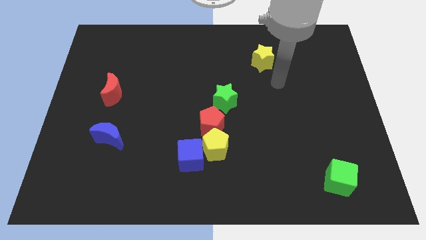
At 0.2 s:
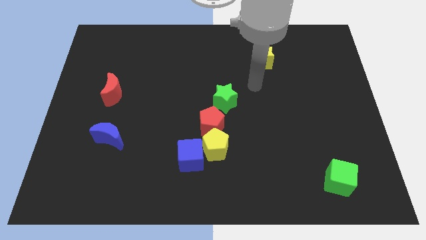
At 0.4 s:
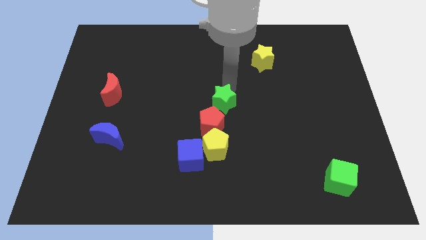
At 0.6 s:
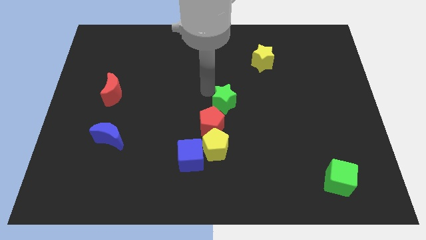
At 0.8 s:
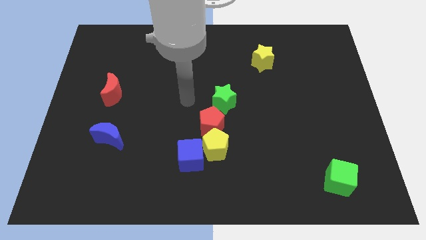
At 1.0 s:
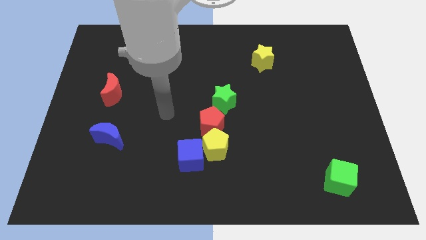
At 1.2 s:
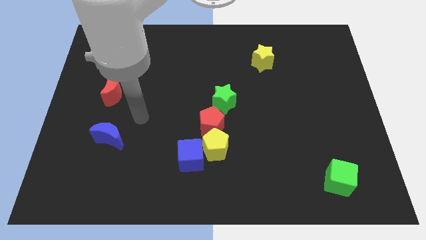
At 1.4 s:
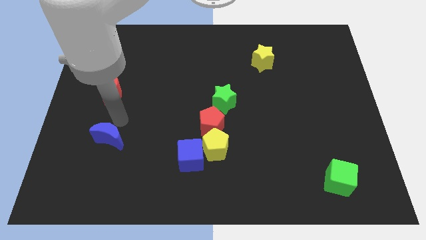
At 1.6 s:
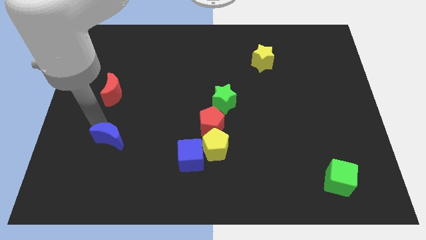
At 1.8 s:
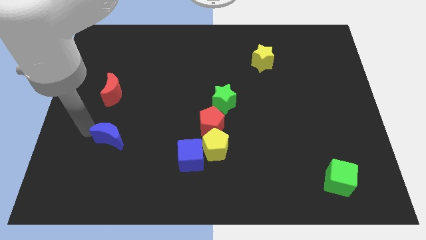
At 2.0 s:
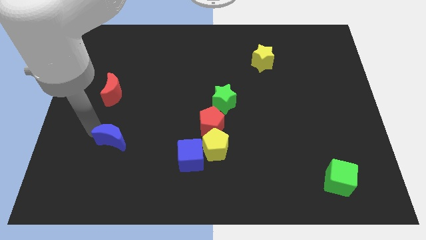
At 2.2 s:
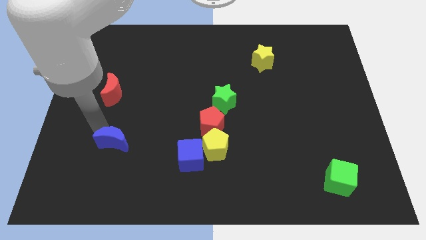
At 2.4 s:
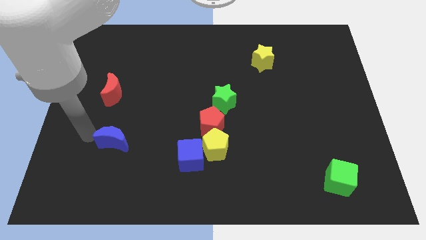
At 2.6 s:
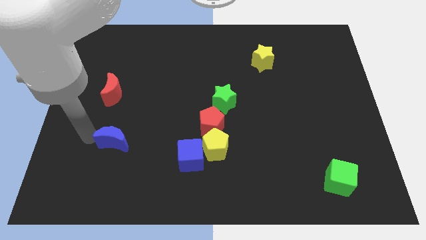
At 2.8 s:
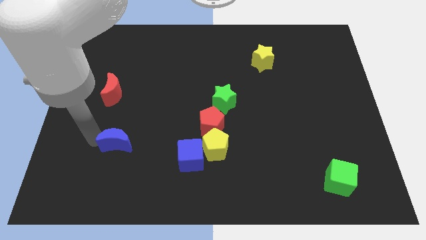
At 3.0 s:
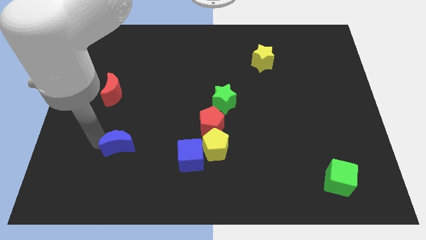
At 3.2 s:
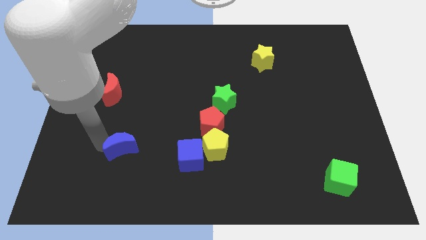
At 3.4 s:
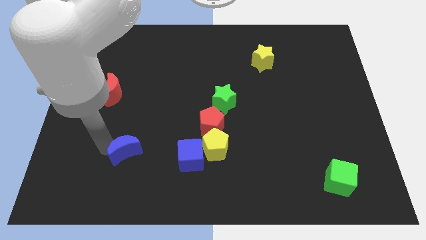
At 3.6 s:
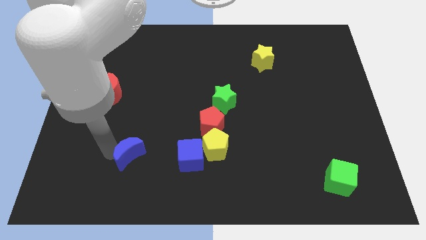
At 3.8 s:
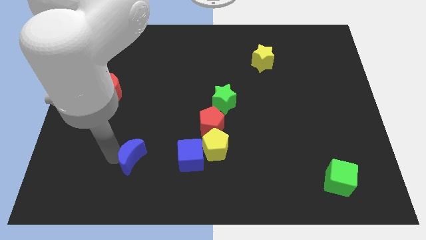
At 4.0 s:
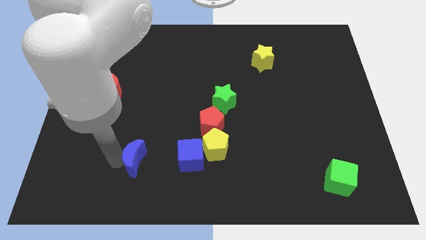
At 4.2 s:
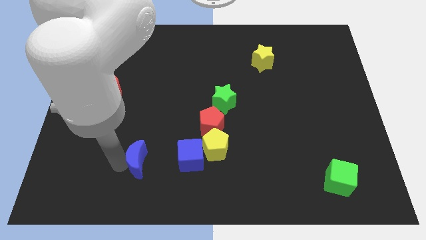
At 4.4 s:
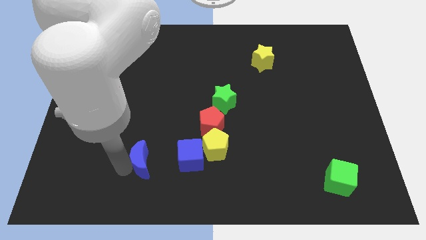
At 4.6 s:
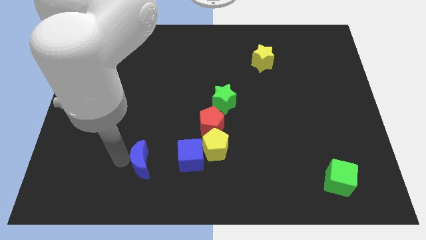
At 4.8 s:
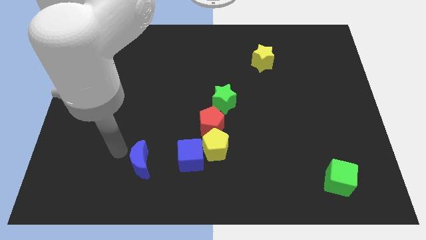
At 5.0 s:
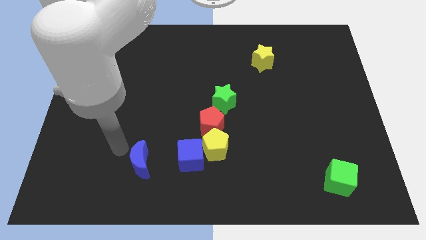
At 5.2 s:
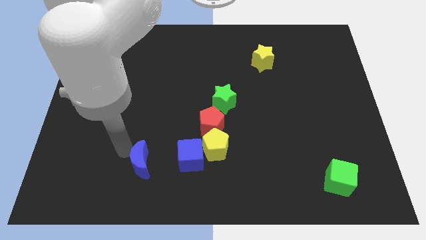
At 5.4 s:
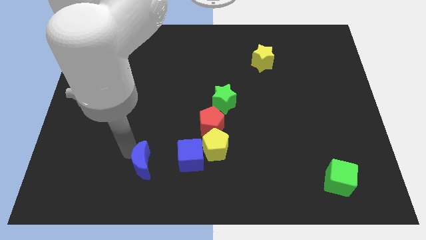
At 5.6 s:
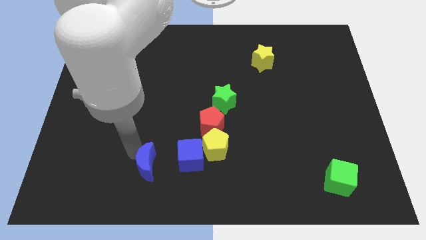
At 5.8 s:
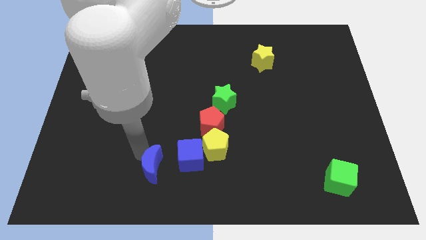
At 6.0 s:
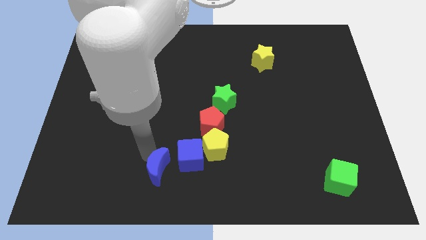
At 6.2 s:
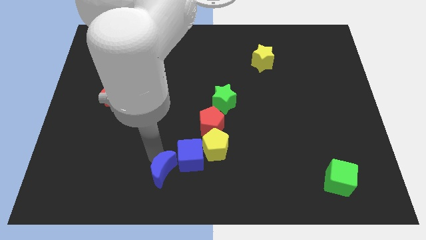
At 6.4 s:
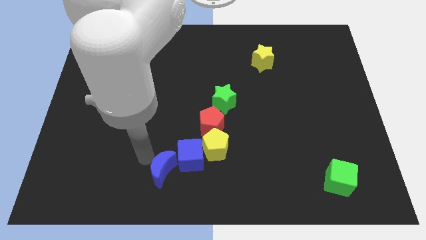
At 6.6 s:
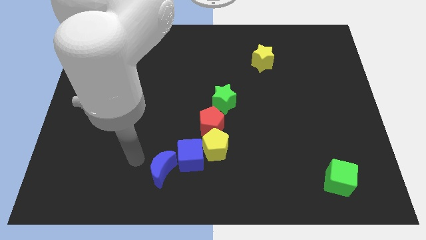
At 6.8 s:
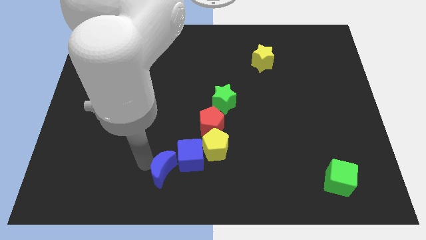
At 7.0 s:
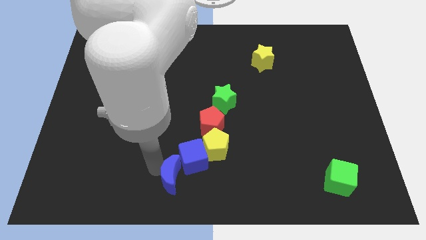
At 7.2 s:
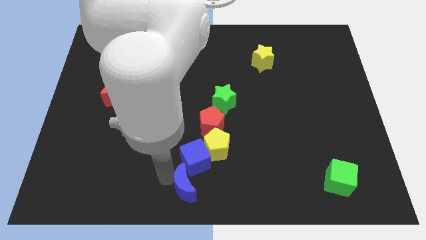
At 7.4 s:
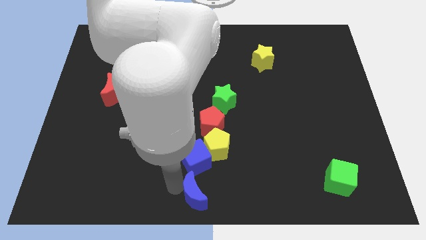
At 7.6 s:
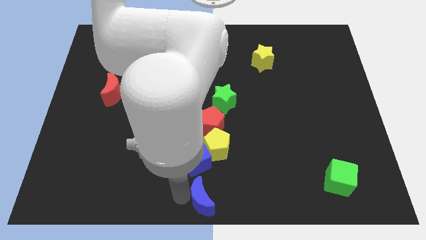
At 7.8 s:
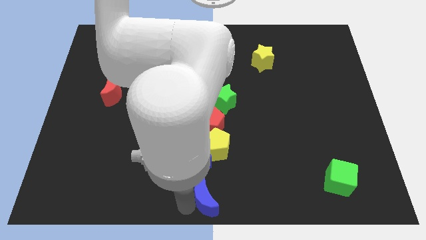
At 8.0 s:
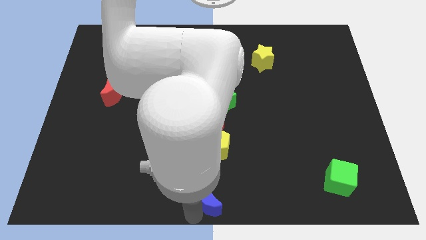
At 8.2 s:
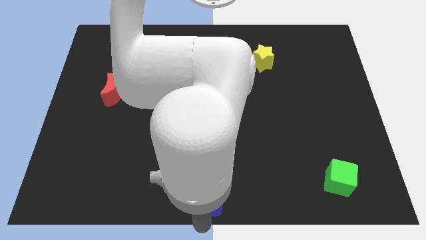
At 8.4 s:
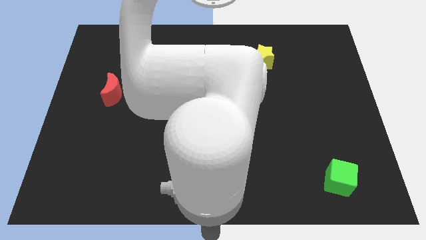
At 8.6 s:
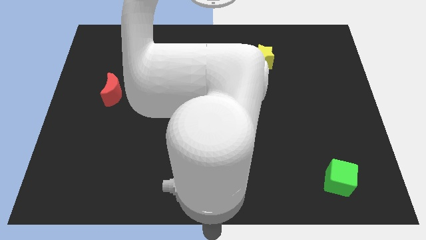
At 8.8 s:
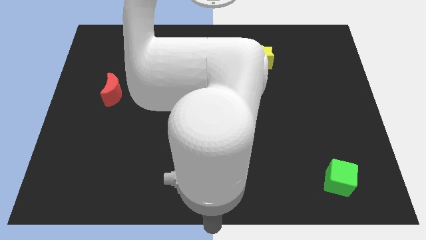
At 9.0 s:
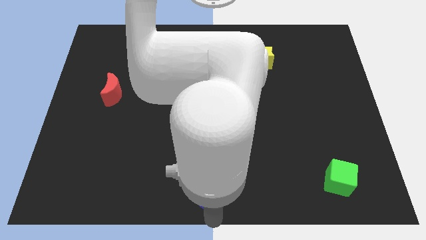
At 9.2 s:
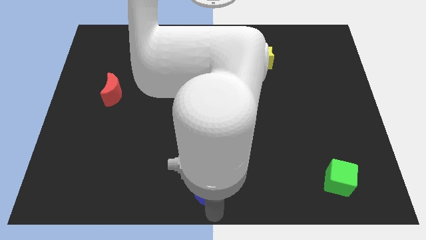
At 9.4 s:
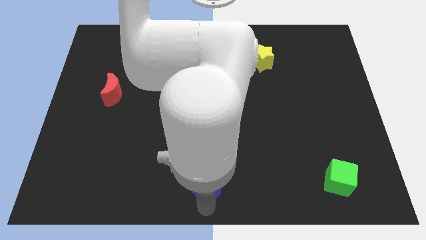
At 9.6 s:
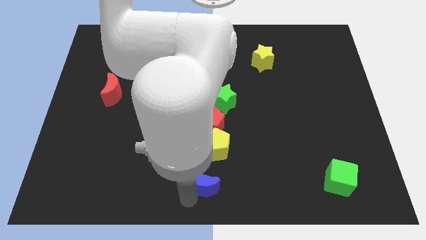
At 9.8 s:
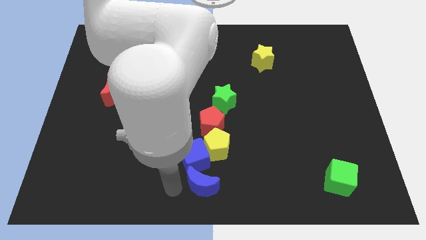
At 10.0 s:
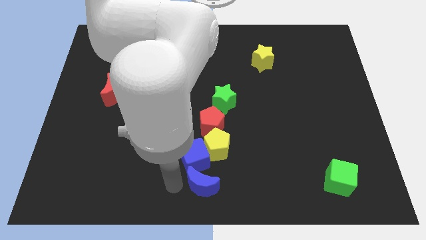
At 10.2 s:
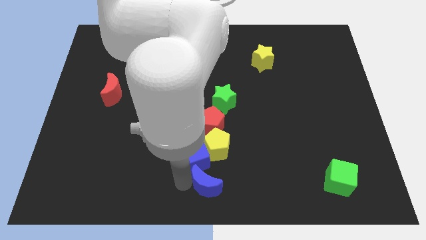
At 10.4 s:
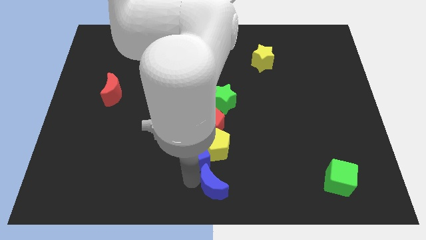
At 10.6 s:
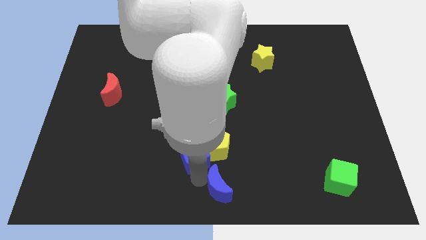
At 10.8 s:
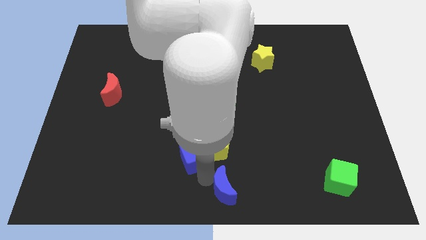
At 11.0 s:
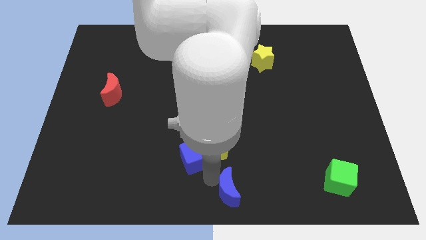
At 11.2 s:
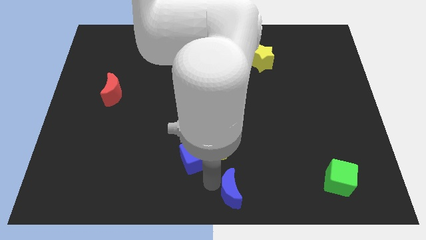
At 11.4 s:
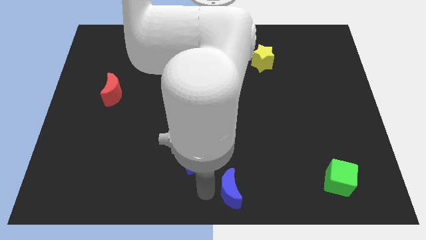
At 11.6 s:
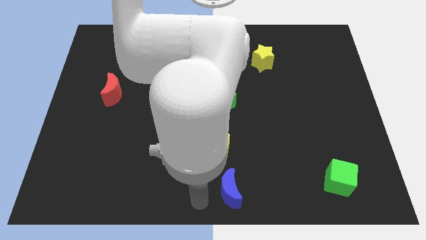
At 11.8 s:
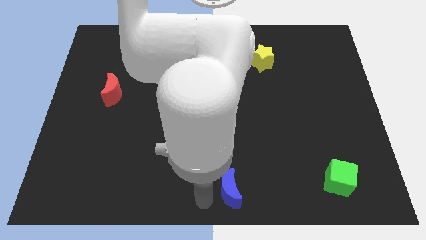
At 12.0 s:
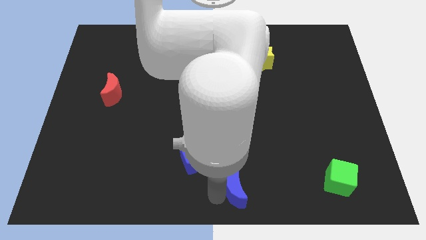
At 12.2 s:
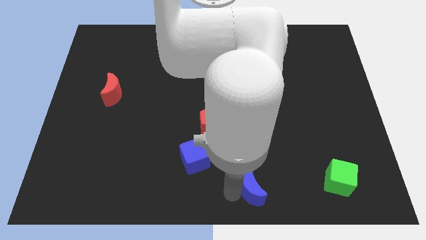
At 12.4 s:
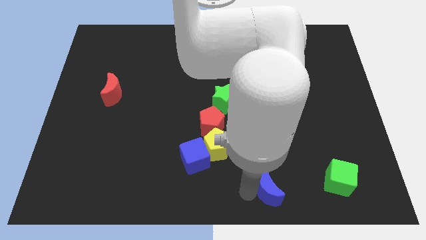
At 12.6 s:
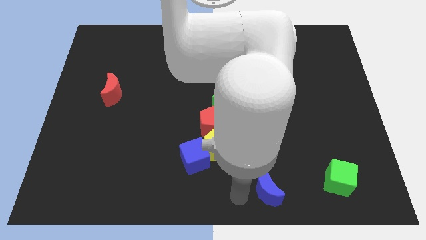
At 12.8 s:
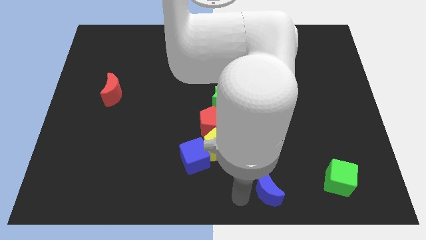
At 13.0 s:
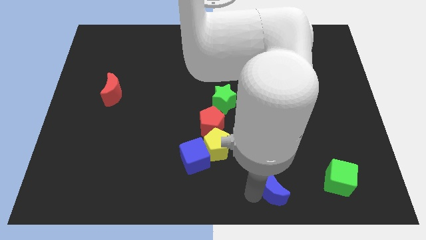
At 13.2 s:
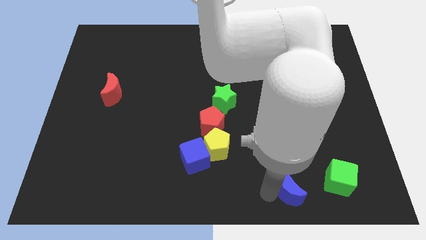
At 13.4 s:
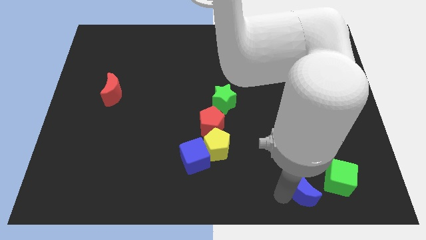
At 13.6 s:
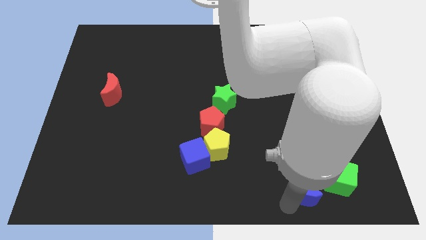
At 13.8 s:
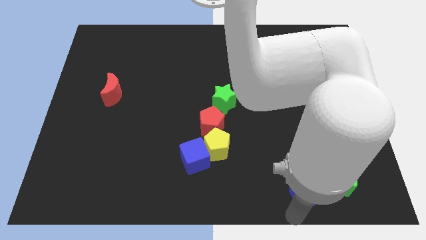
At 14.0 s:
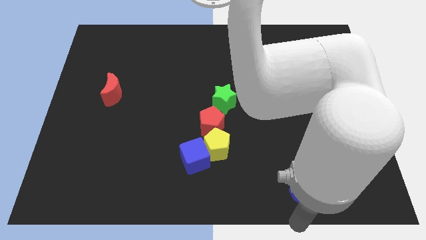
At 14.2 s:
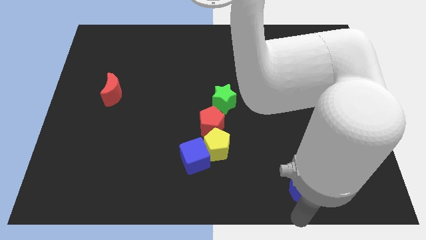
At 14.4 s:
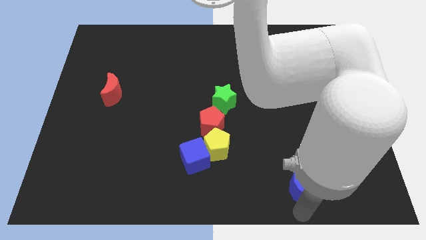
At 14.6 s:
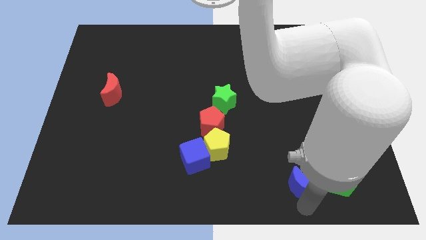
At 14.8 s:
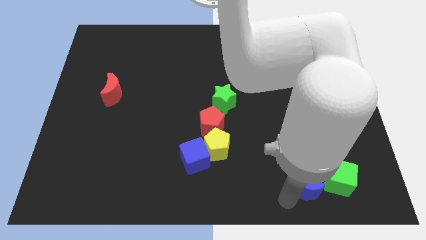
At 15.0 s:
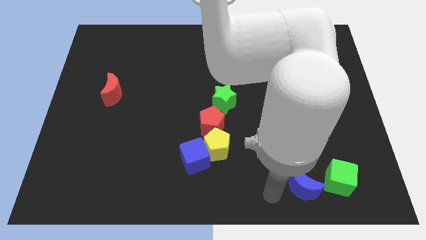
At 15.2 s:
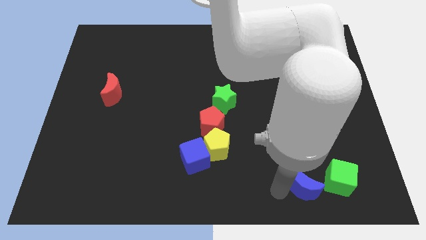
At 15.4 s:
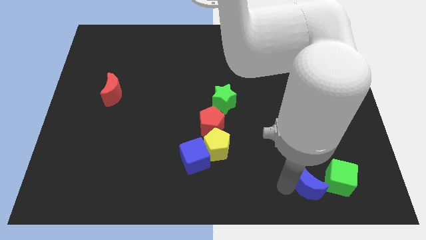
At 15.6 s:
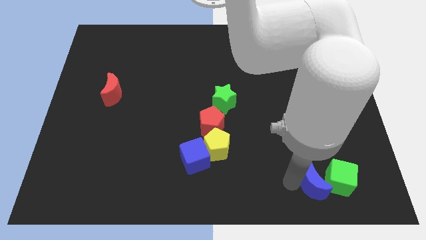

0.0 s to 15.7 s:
slide the blue moon next to the green cube
